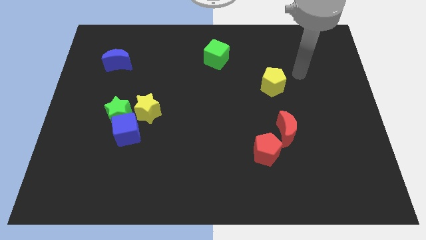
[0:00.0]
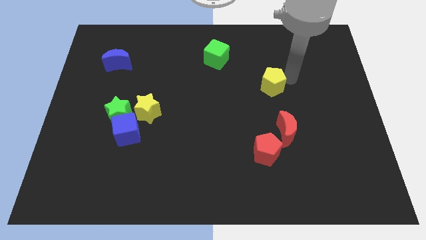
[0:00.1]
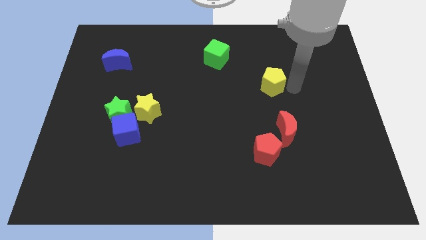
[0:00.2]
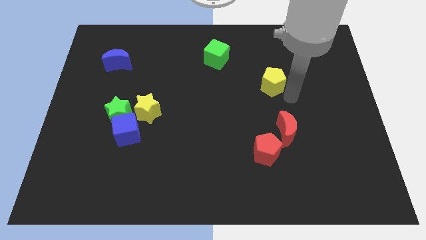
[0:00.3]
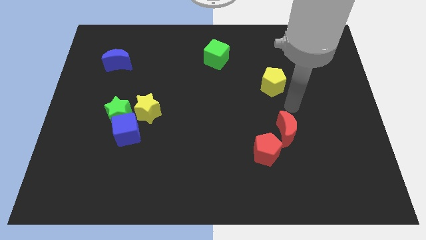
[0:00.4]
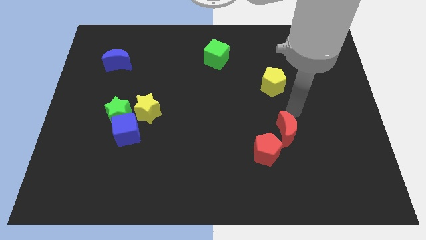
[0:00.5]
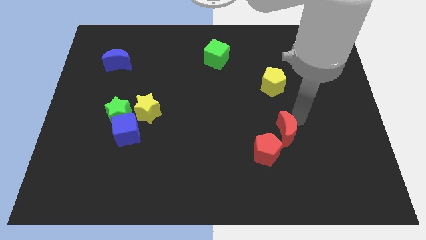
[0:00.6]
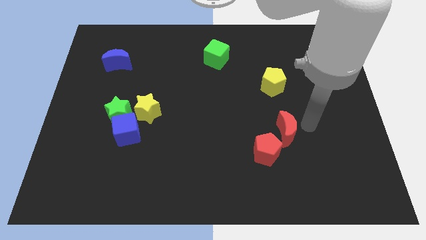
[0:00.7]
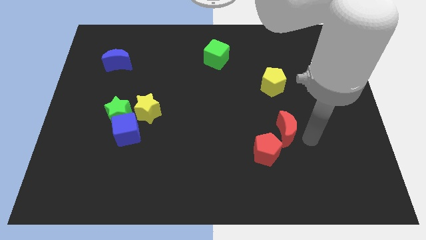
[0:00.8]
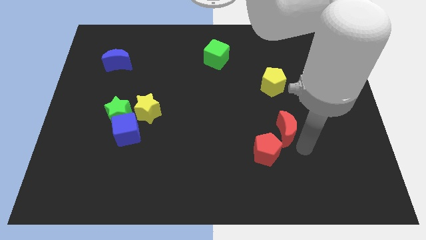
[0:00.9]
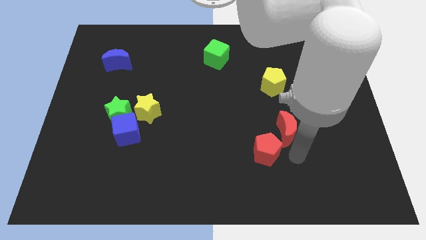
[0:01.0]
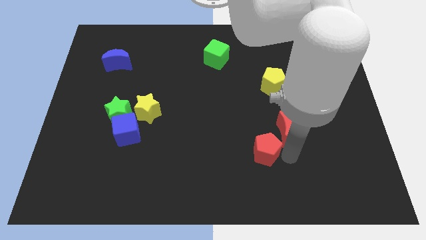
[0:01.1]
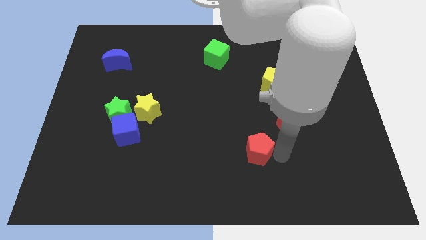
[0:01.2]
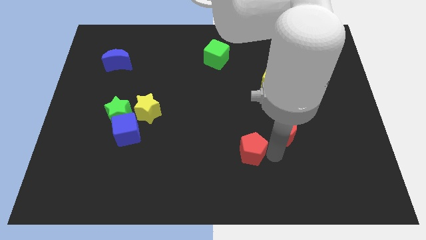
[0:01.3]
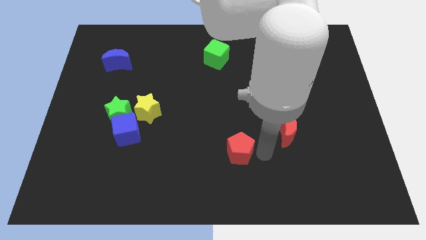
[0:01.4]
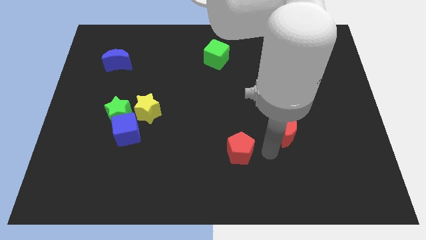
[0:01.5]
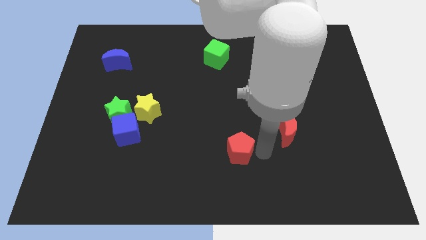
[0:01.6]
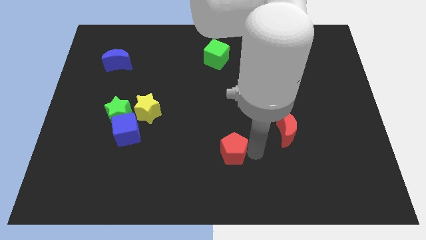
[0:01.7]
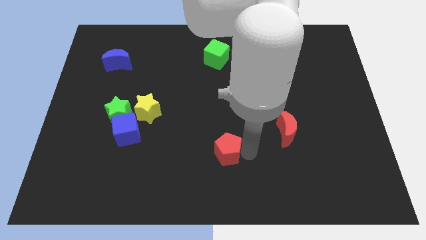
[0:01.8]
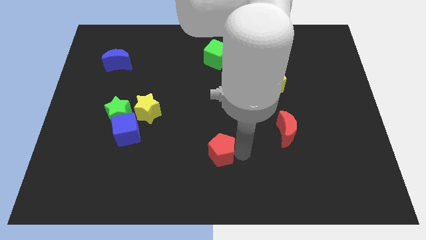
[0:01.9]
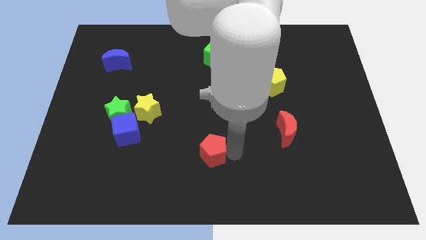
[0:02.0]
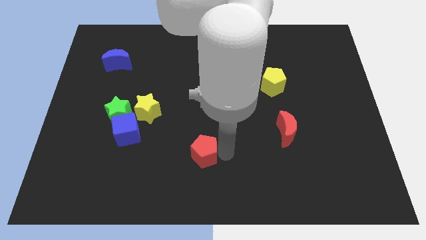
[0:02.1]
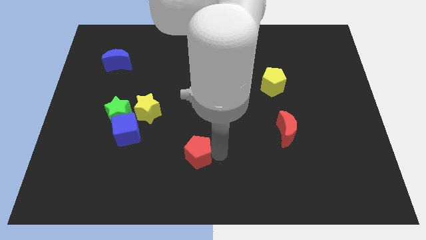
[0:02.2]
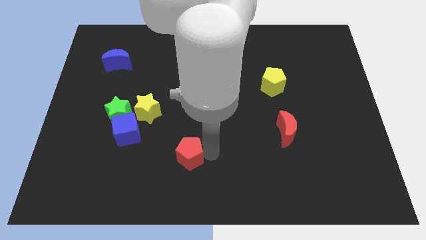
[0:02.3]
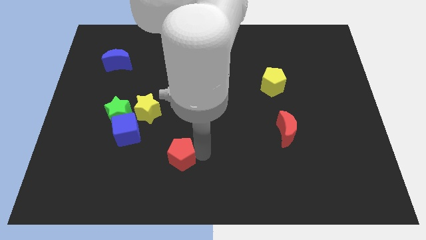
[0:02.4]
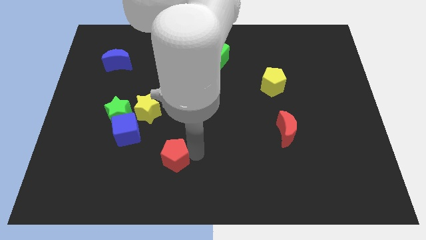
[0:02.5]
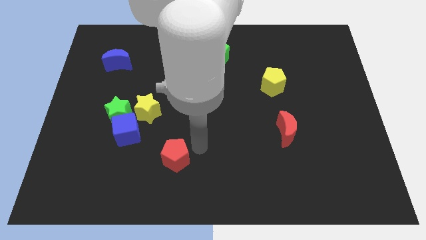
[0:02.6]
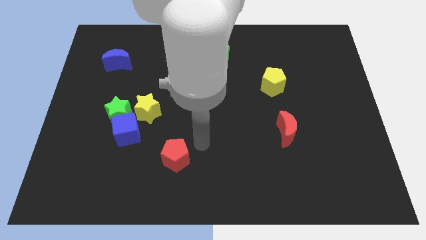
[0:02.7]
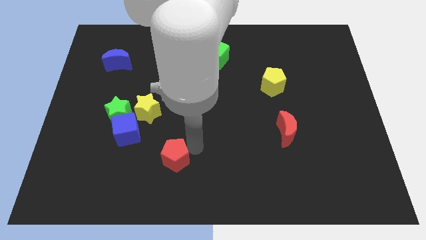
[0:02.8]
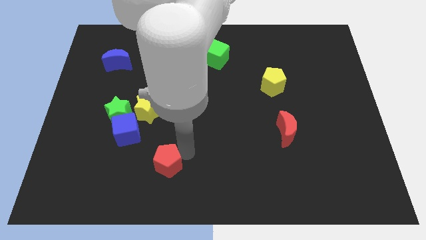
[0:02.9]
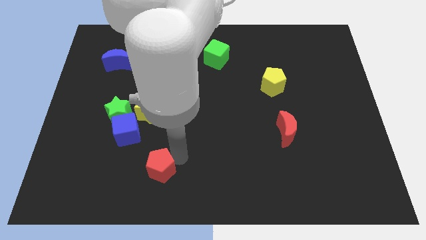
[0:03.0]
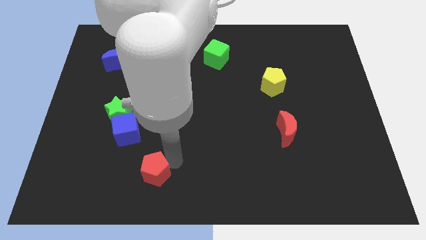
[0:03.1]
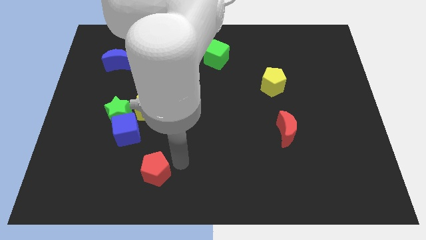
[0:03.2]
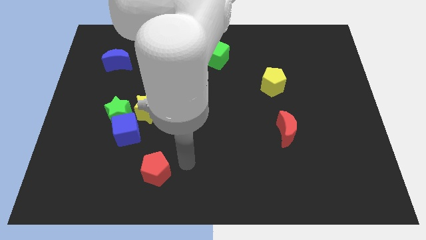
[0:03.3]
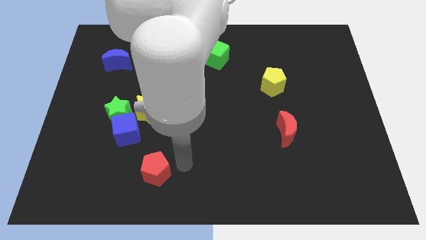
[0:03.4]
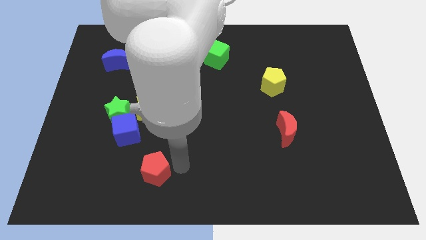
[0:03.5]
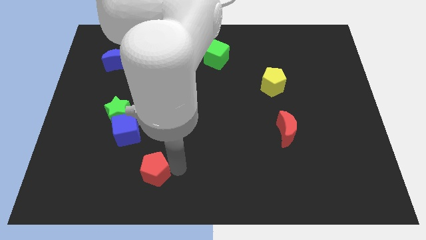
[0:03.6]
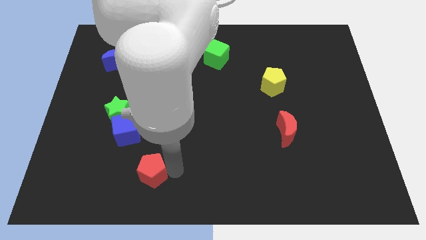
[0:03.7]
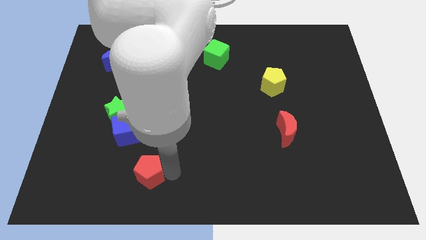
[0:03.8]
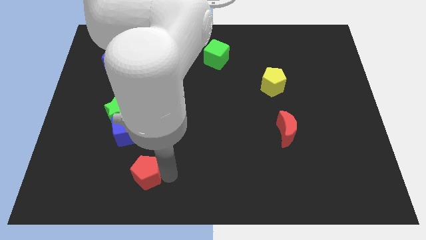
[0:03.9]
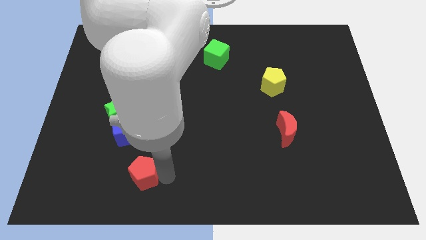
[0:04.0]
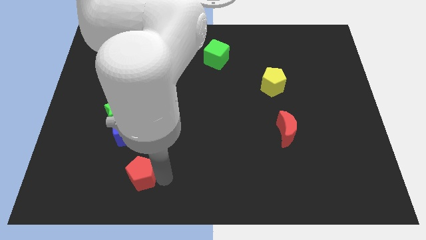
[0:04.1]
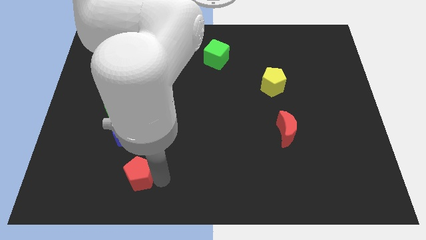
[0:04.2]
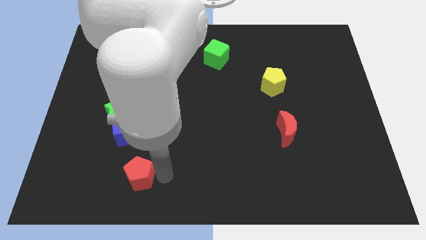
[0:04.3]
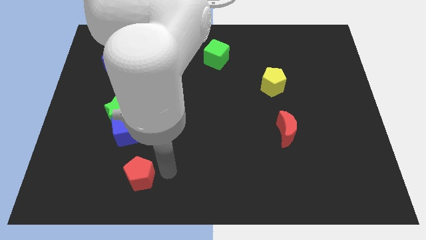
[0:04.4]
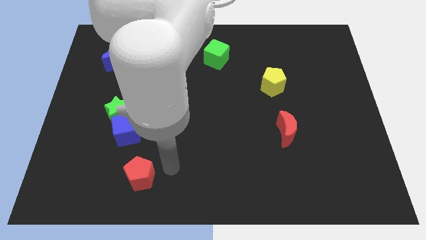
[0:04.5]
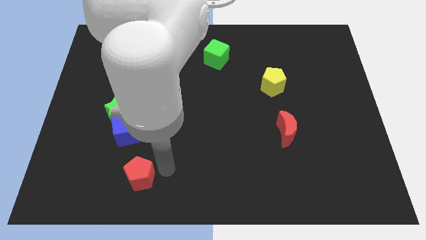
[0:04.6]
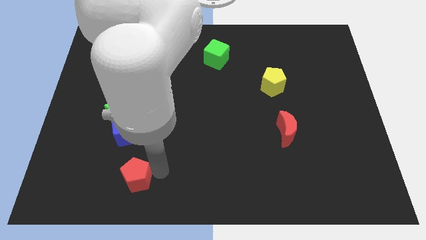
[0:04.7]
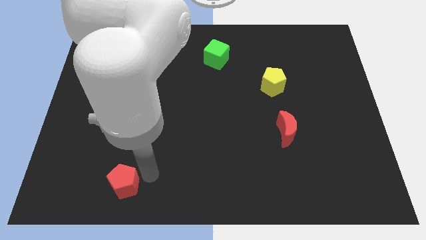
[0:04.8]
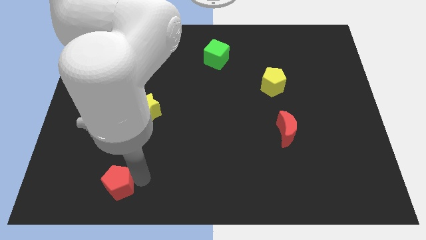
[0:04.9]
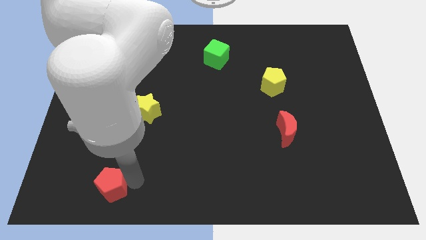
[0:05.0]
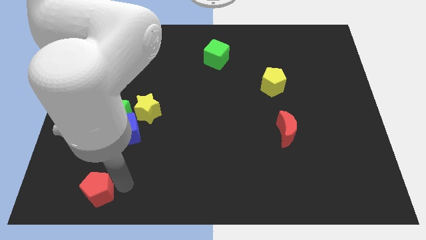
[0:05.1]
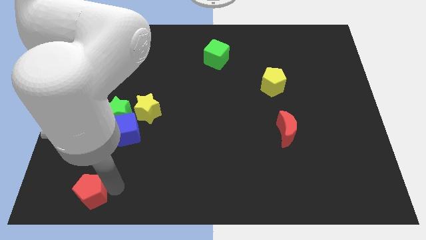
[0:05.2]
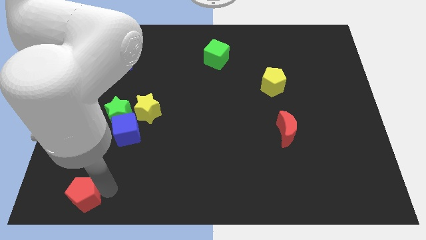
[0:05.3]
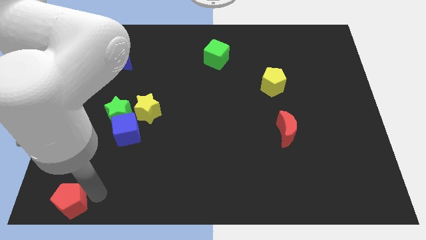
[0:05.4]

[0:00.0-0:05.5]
slide the red pentagon to the bottom left corner

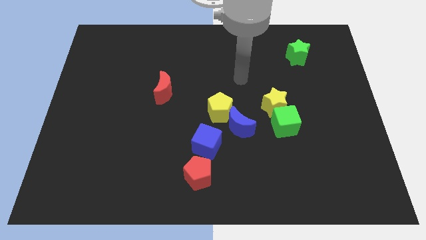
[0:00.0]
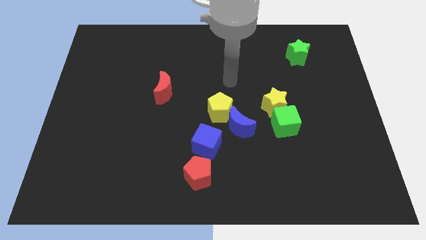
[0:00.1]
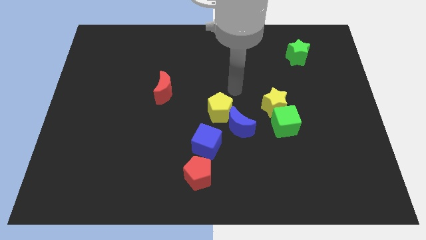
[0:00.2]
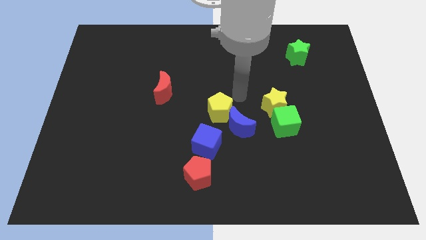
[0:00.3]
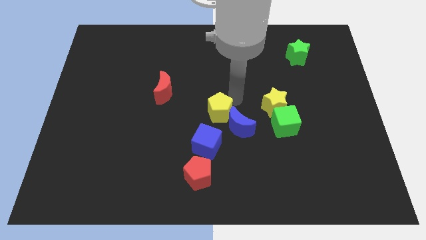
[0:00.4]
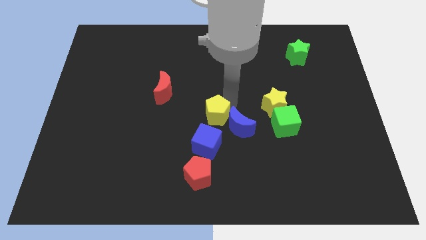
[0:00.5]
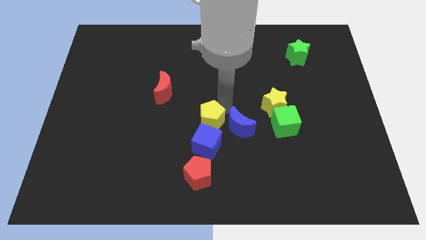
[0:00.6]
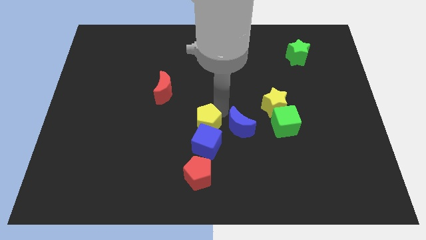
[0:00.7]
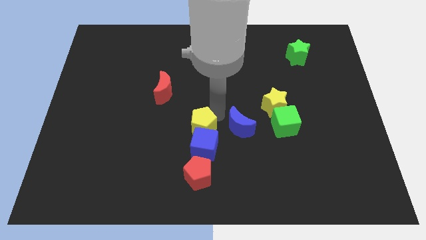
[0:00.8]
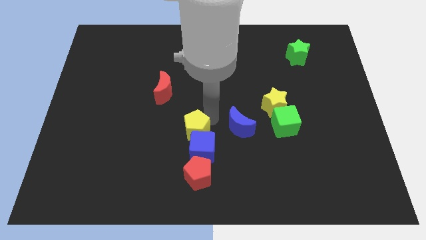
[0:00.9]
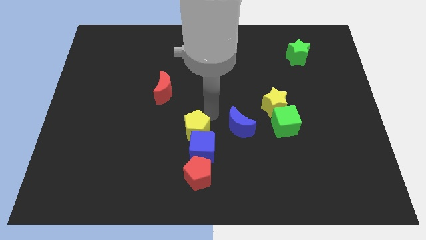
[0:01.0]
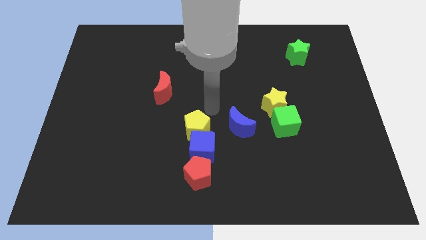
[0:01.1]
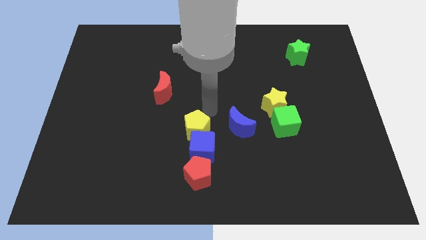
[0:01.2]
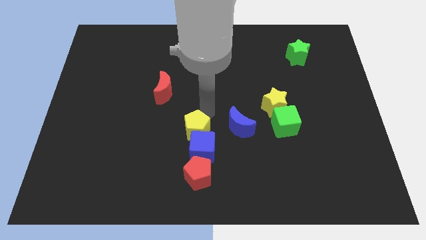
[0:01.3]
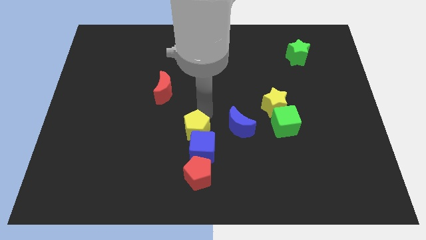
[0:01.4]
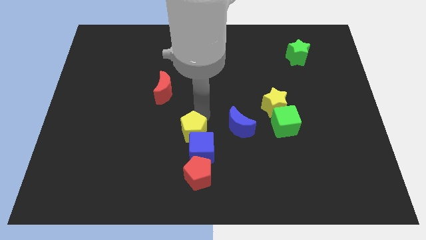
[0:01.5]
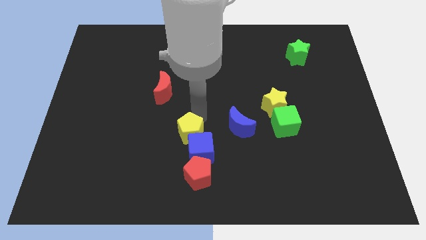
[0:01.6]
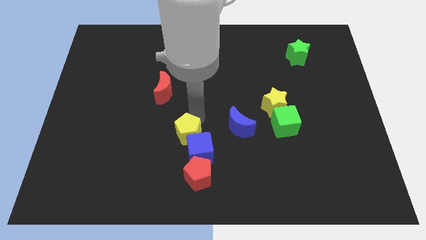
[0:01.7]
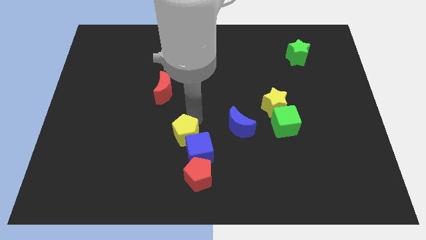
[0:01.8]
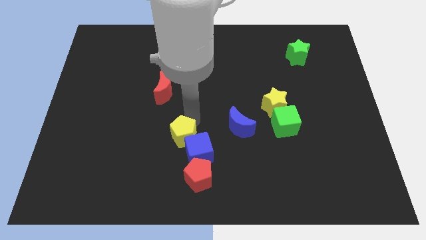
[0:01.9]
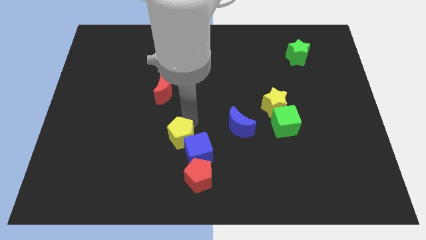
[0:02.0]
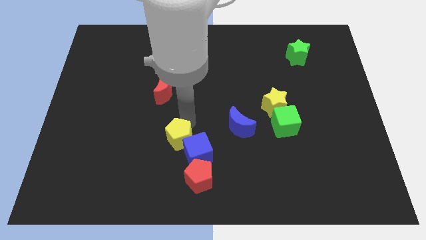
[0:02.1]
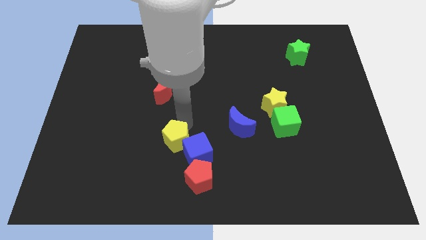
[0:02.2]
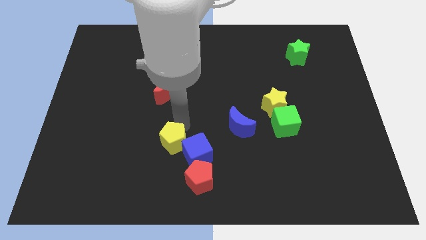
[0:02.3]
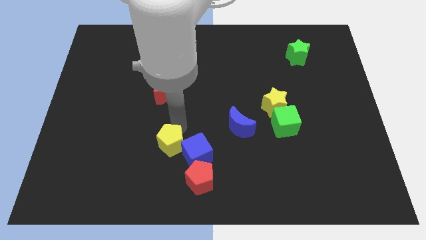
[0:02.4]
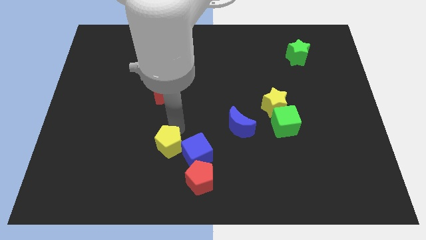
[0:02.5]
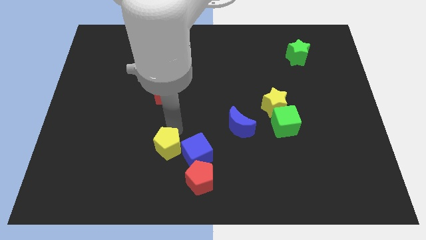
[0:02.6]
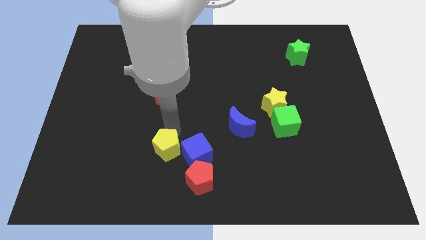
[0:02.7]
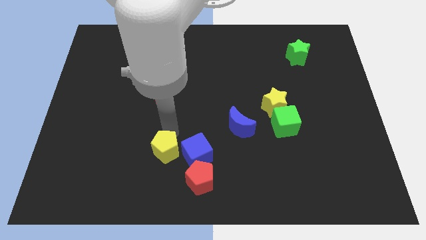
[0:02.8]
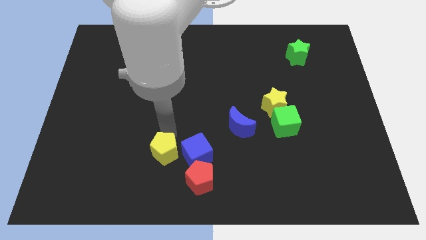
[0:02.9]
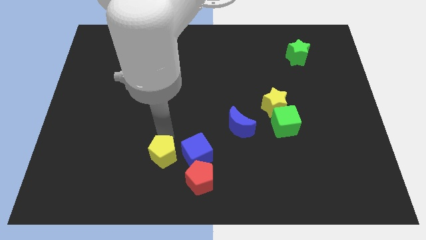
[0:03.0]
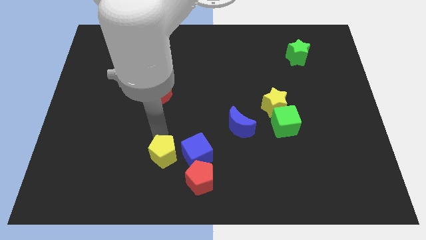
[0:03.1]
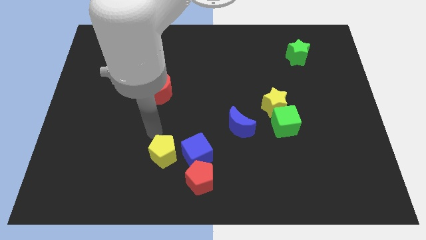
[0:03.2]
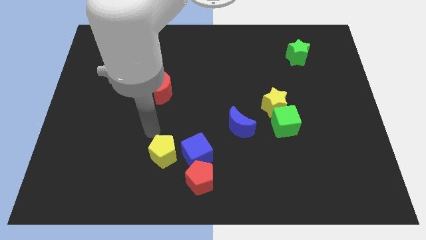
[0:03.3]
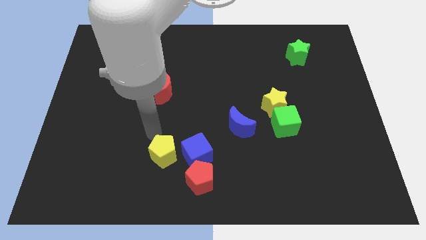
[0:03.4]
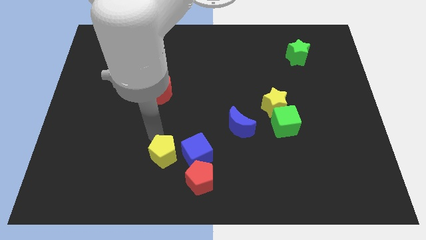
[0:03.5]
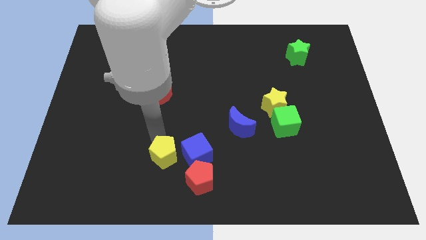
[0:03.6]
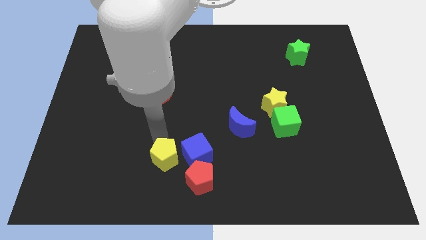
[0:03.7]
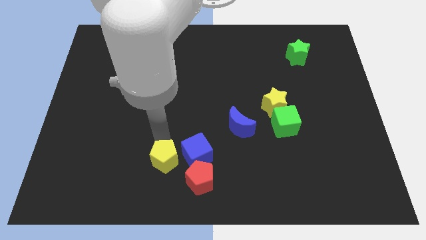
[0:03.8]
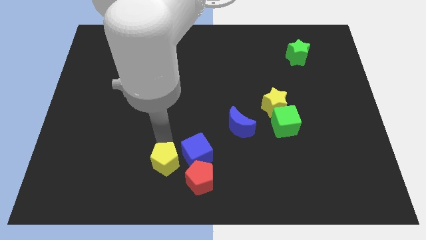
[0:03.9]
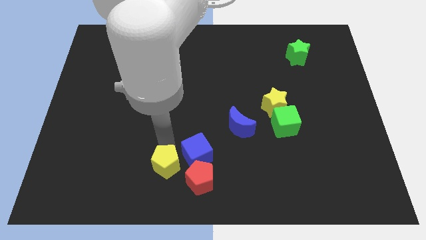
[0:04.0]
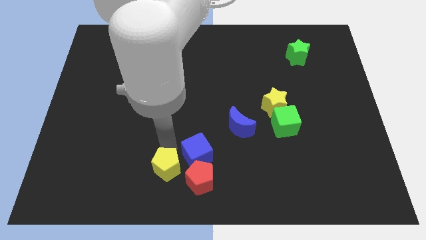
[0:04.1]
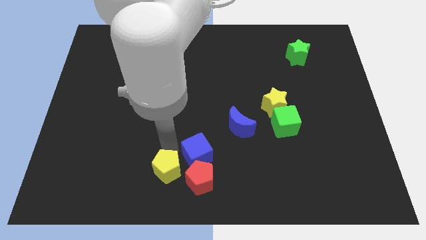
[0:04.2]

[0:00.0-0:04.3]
slide the yellow pentagon to the bottom side
